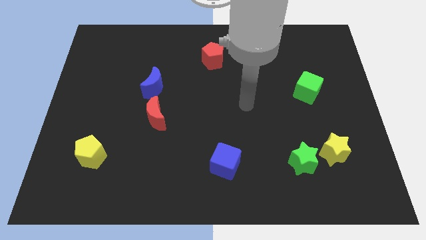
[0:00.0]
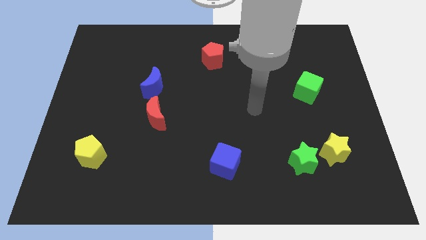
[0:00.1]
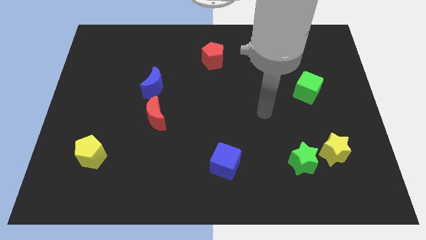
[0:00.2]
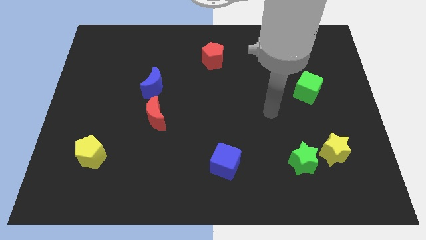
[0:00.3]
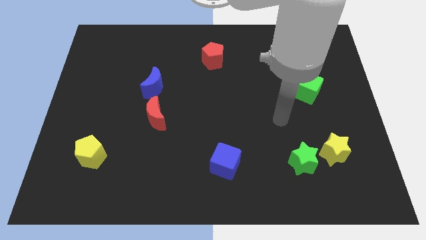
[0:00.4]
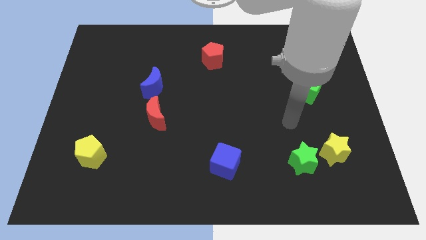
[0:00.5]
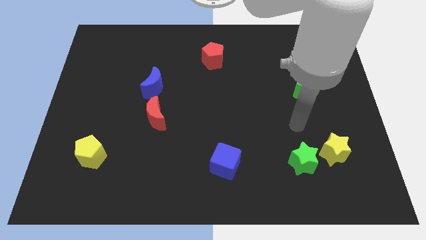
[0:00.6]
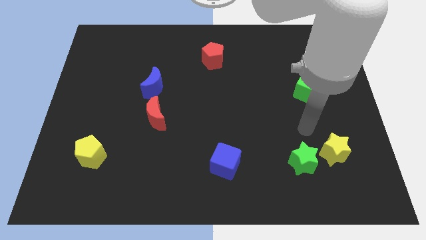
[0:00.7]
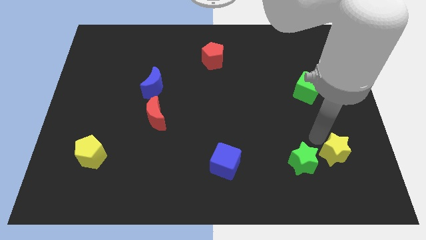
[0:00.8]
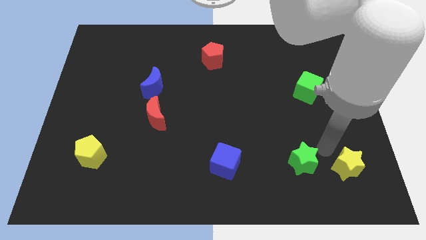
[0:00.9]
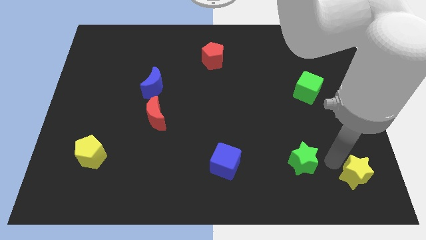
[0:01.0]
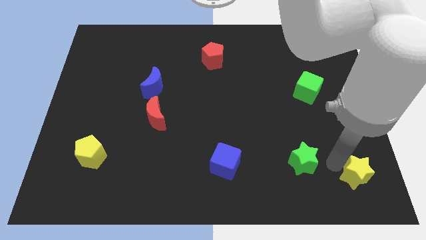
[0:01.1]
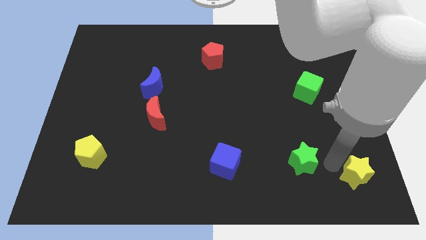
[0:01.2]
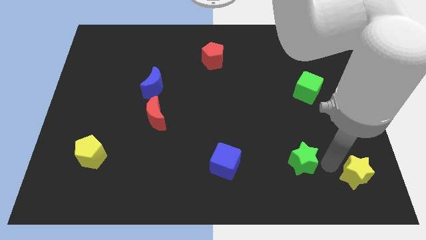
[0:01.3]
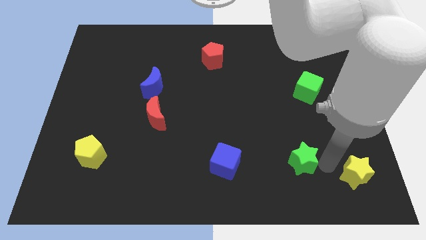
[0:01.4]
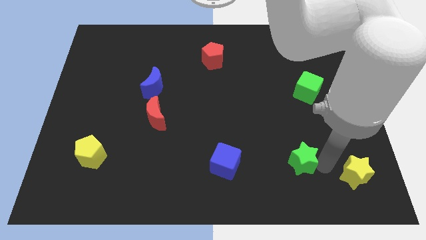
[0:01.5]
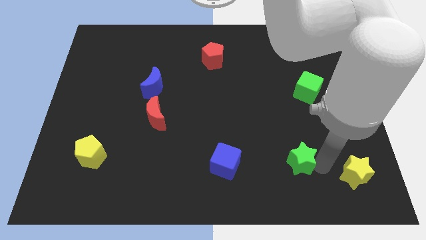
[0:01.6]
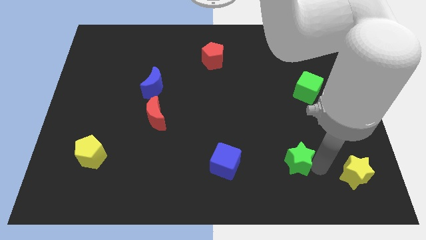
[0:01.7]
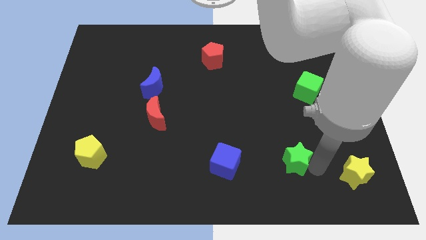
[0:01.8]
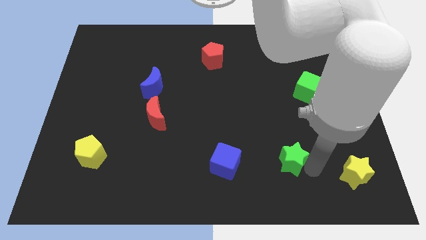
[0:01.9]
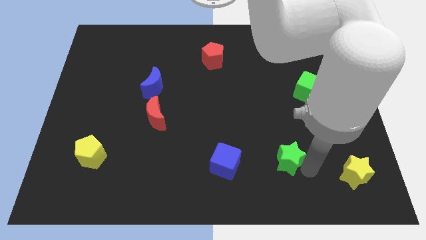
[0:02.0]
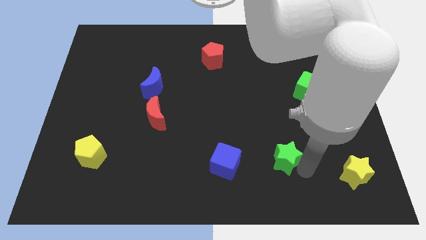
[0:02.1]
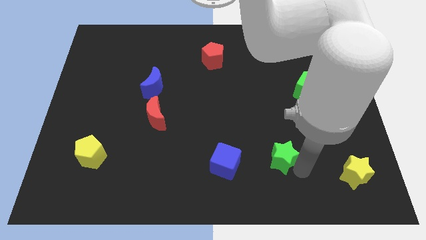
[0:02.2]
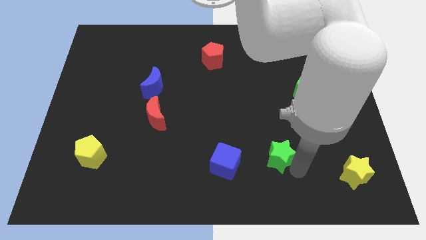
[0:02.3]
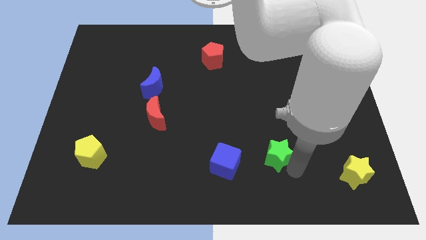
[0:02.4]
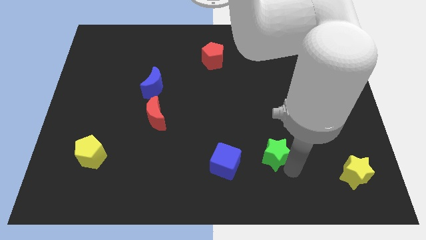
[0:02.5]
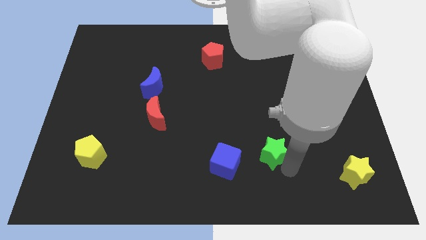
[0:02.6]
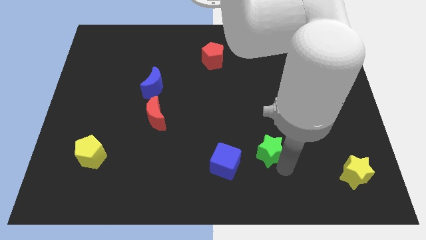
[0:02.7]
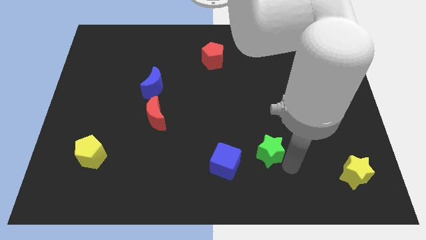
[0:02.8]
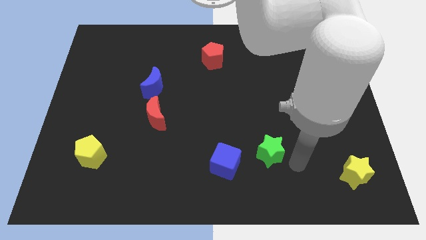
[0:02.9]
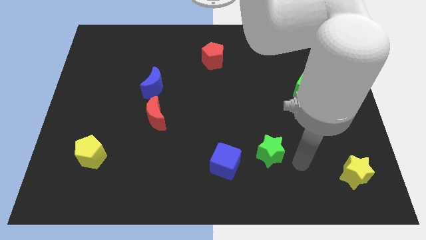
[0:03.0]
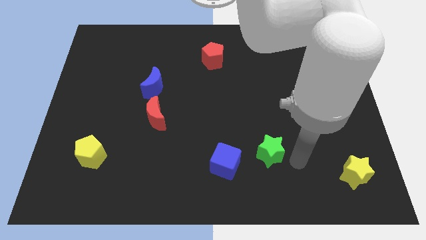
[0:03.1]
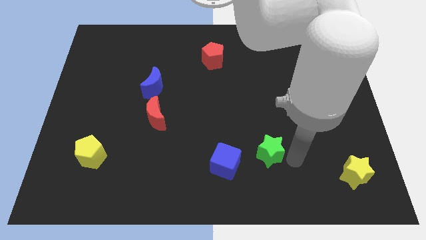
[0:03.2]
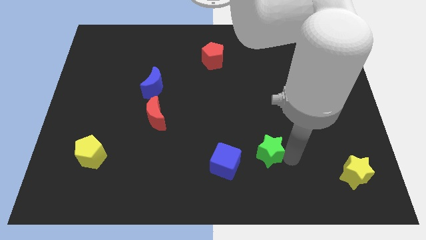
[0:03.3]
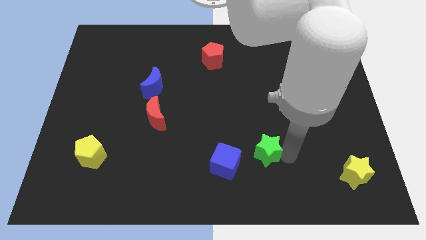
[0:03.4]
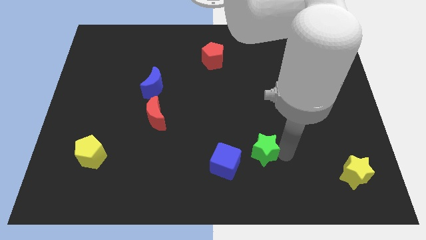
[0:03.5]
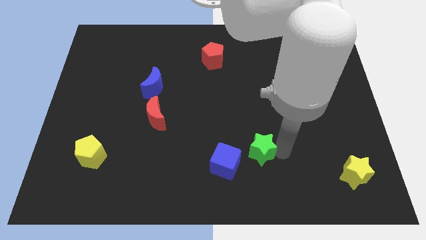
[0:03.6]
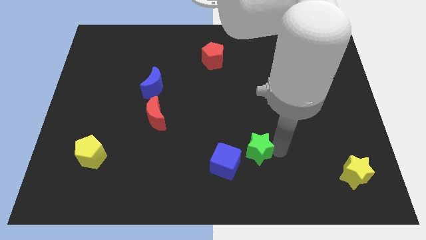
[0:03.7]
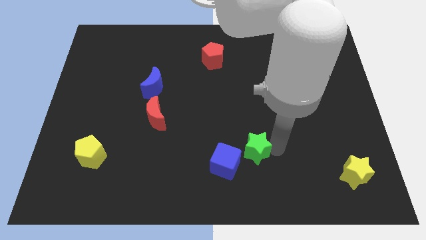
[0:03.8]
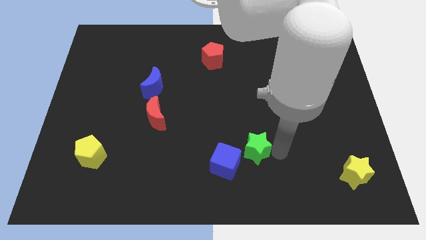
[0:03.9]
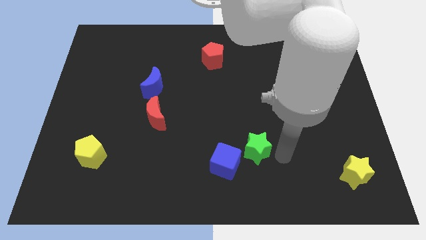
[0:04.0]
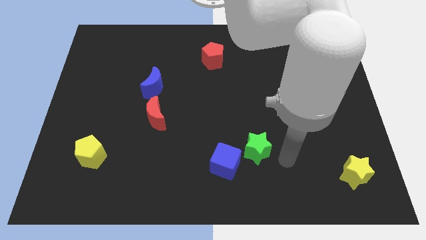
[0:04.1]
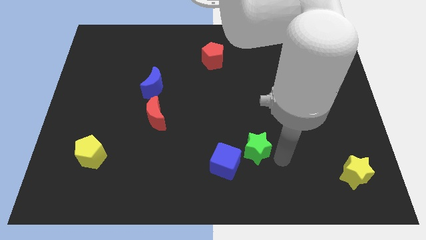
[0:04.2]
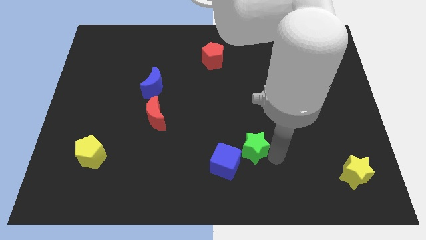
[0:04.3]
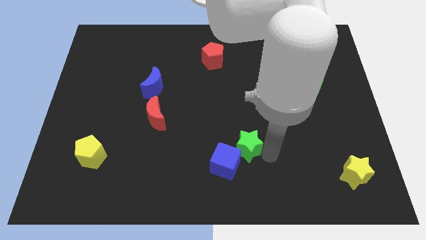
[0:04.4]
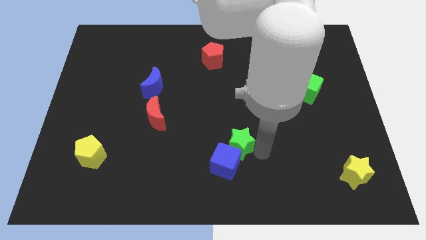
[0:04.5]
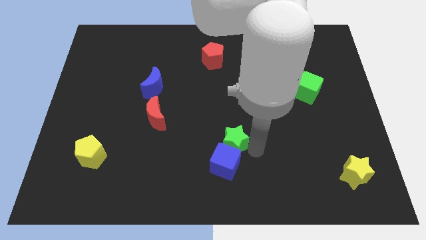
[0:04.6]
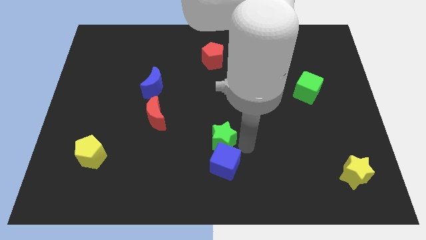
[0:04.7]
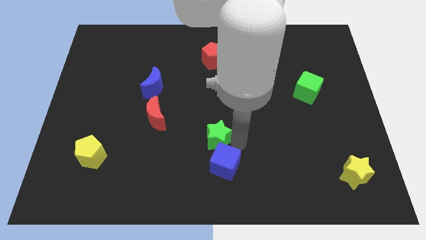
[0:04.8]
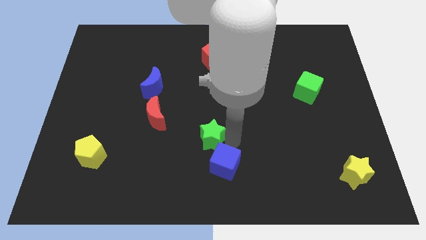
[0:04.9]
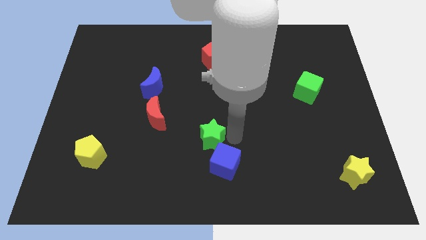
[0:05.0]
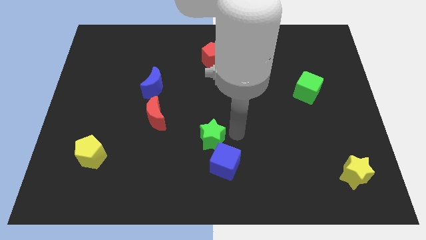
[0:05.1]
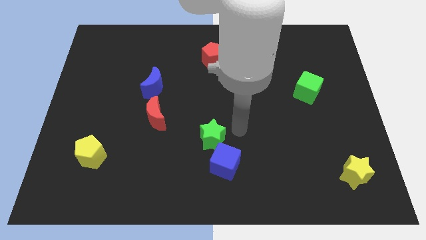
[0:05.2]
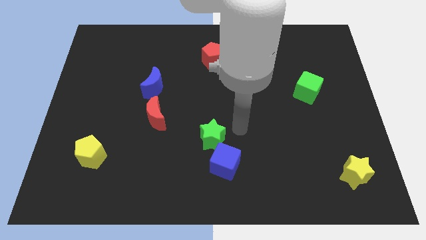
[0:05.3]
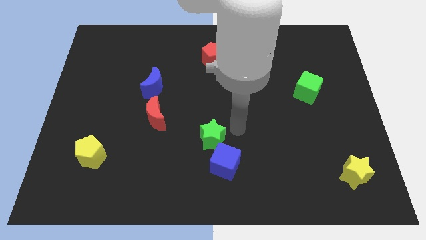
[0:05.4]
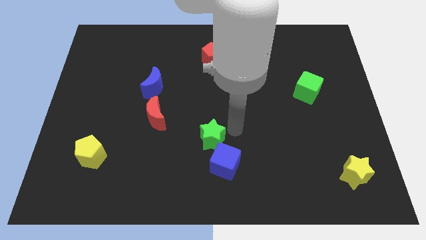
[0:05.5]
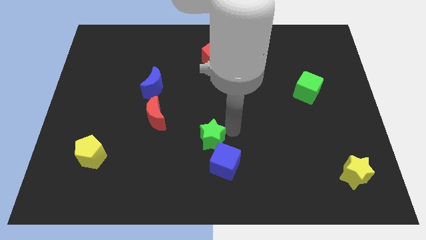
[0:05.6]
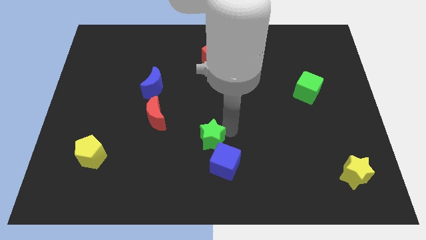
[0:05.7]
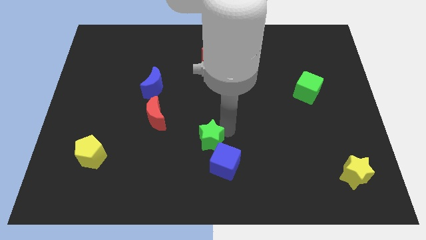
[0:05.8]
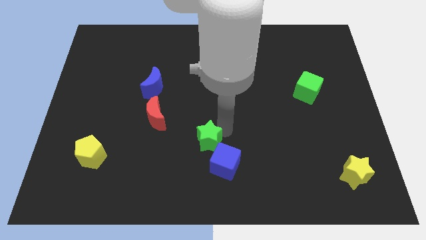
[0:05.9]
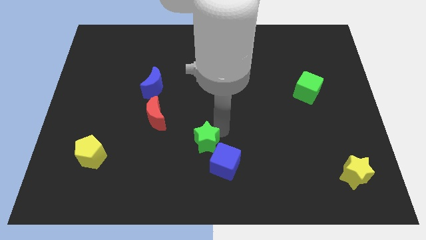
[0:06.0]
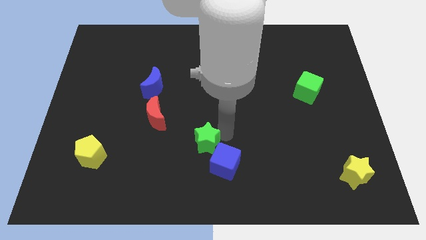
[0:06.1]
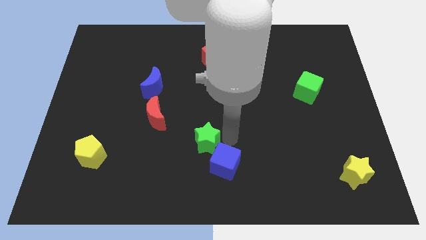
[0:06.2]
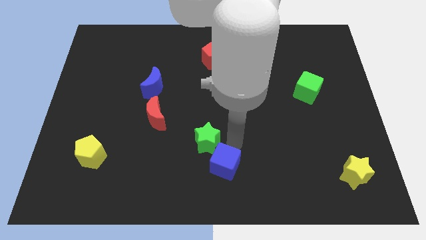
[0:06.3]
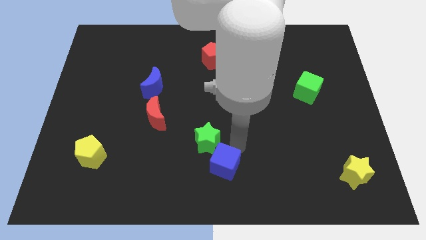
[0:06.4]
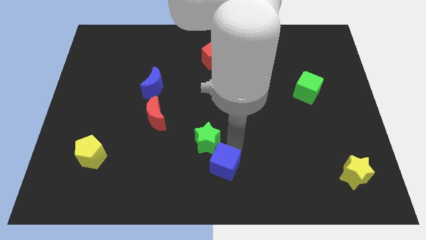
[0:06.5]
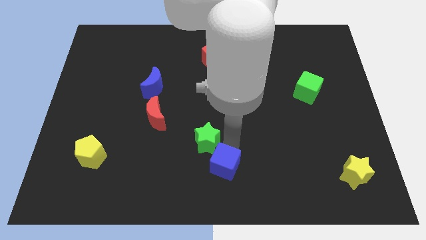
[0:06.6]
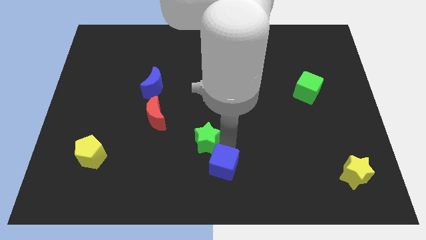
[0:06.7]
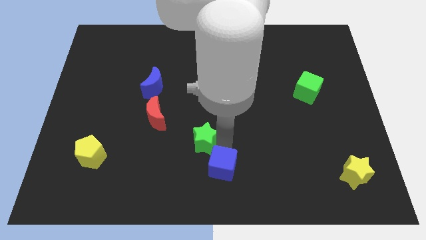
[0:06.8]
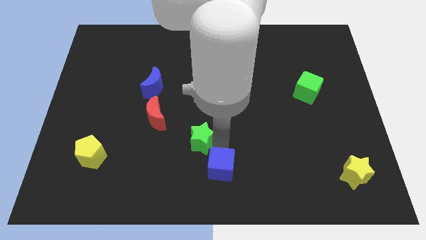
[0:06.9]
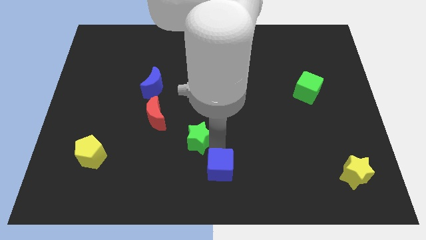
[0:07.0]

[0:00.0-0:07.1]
push the green star to the bottom right side of the red moon
